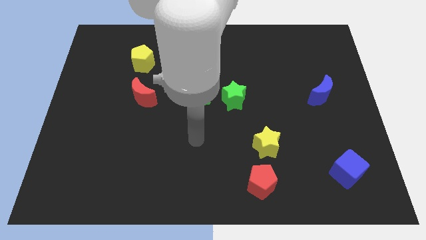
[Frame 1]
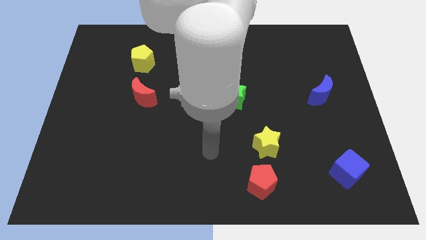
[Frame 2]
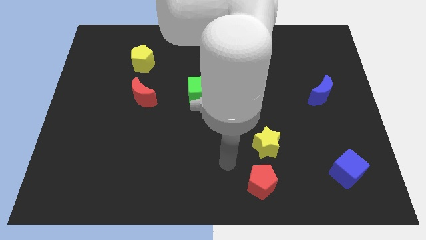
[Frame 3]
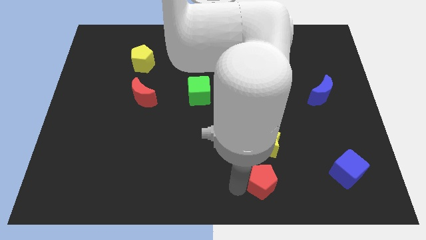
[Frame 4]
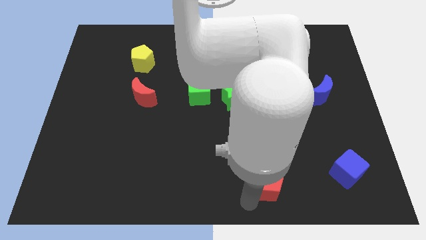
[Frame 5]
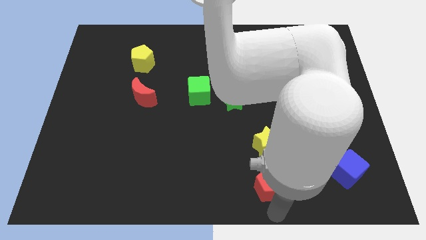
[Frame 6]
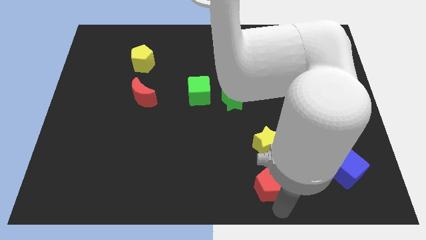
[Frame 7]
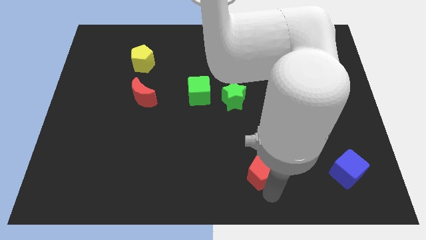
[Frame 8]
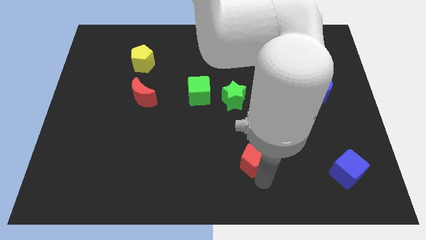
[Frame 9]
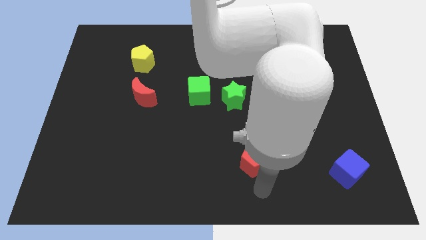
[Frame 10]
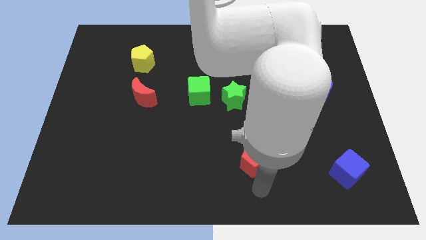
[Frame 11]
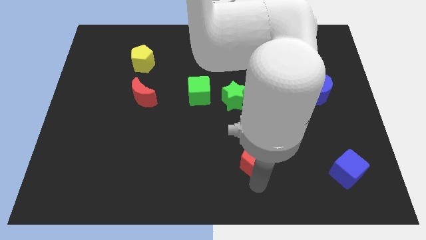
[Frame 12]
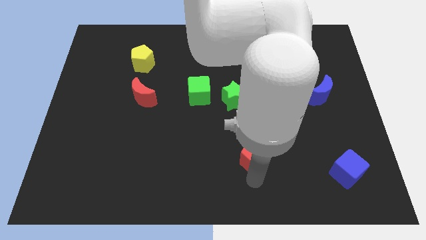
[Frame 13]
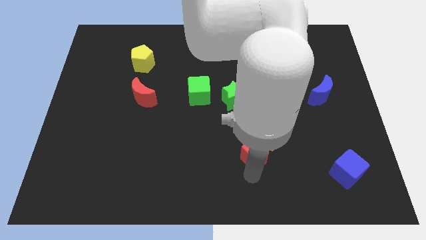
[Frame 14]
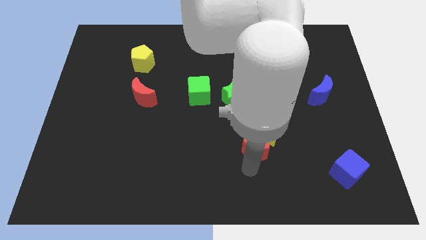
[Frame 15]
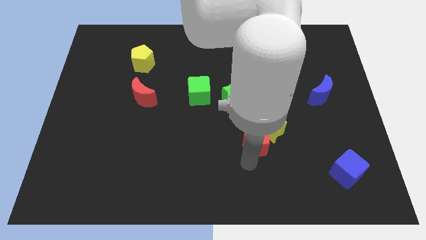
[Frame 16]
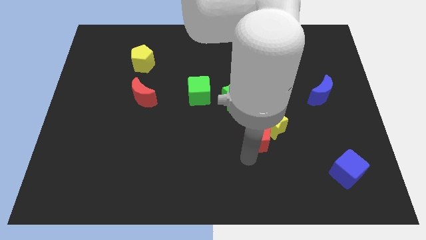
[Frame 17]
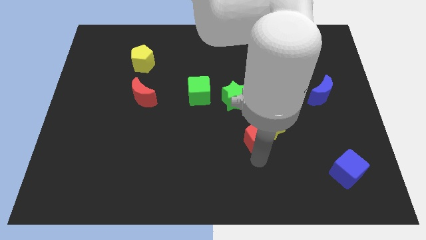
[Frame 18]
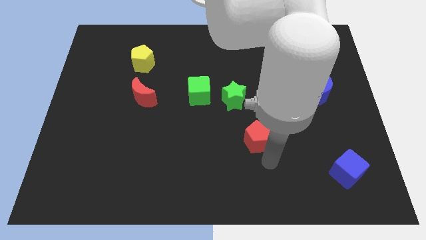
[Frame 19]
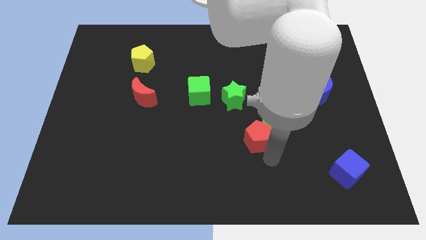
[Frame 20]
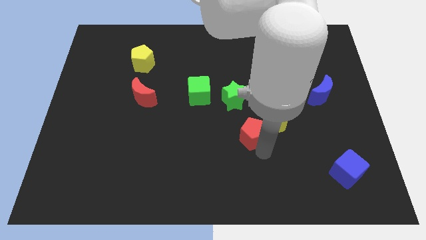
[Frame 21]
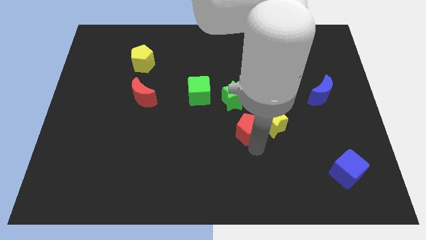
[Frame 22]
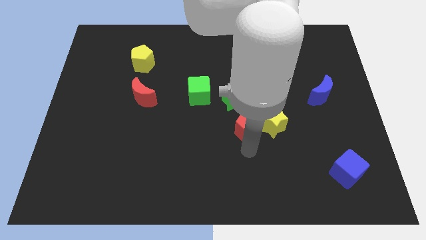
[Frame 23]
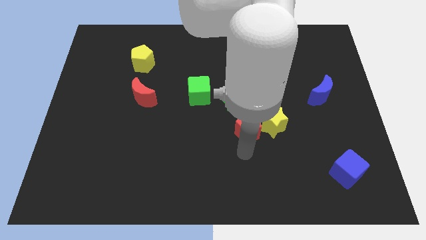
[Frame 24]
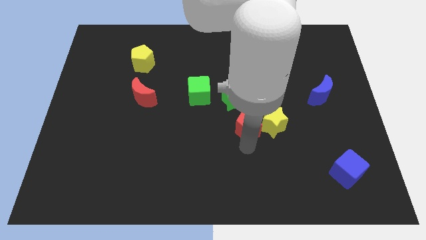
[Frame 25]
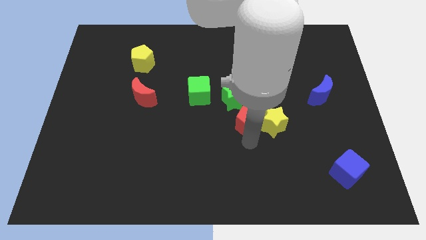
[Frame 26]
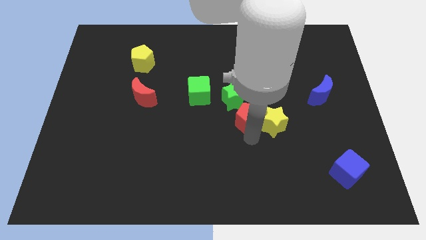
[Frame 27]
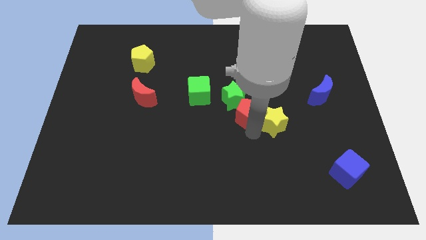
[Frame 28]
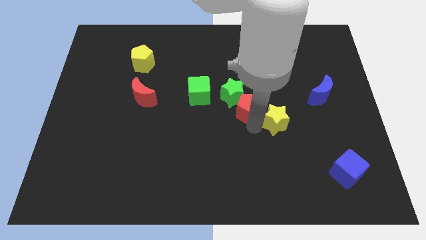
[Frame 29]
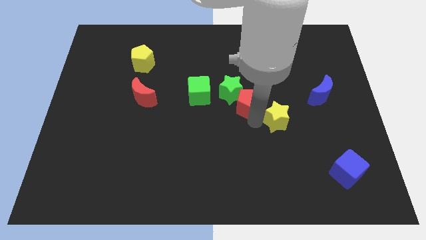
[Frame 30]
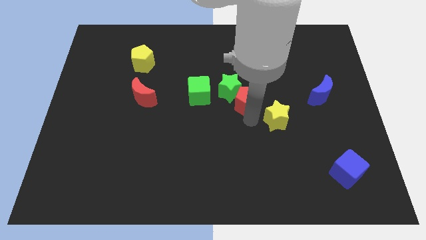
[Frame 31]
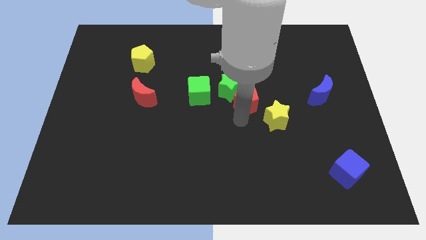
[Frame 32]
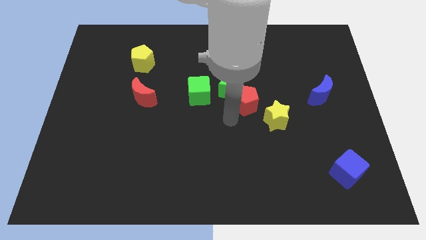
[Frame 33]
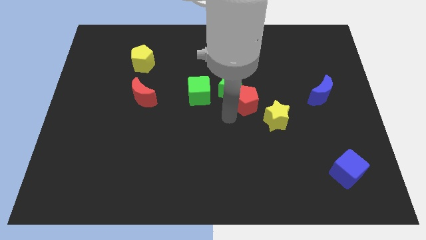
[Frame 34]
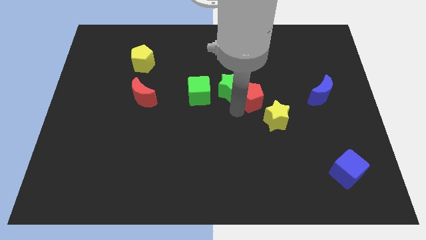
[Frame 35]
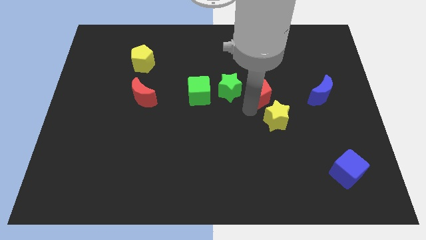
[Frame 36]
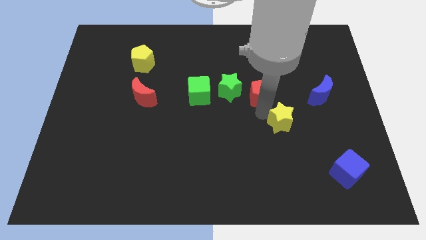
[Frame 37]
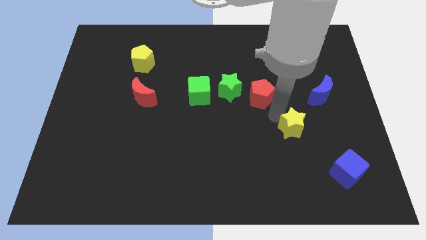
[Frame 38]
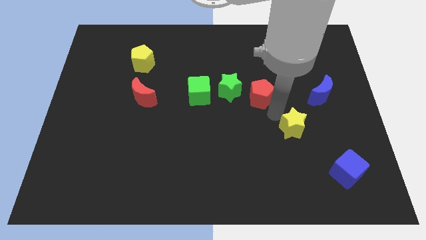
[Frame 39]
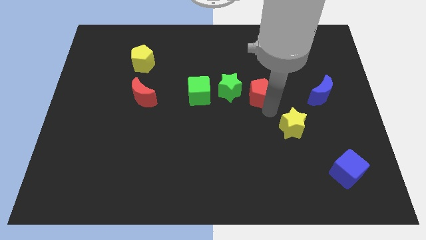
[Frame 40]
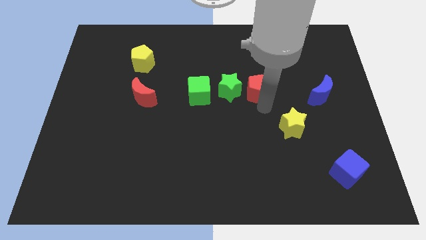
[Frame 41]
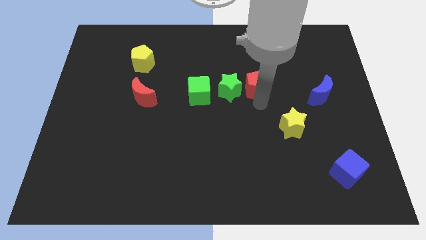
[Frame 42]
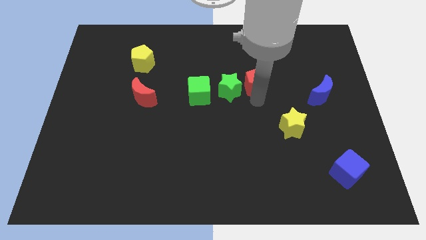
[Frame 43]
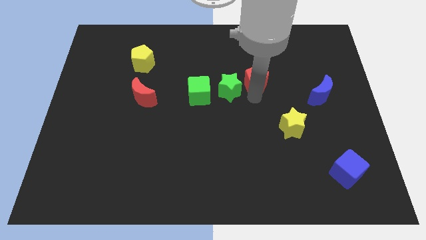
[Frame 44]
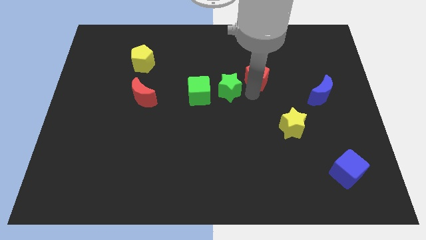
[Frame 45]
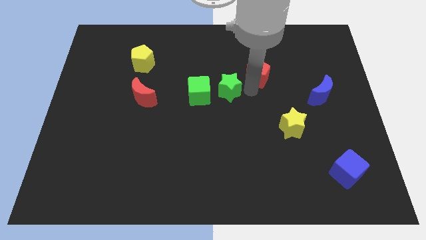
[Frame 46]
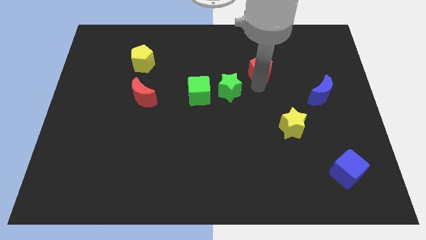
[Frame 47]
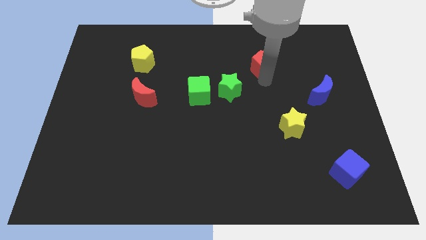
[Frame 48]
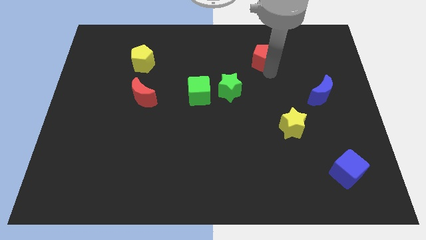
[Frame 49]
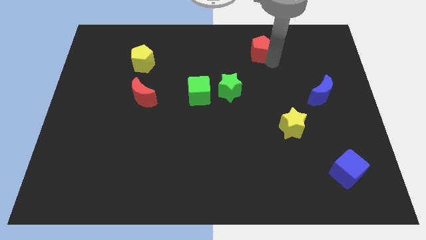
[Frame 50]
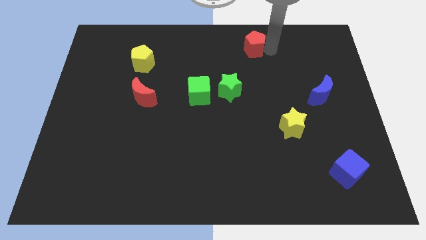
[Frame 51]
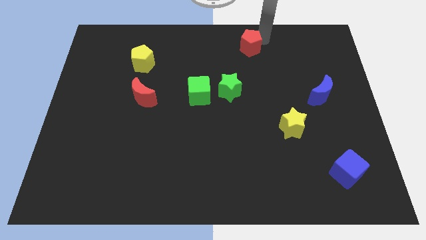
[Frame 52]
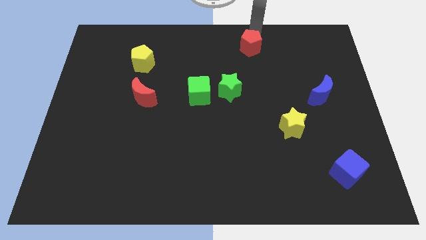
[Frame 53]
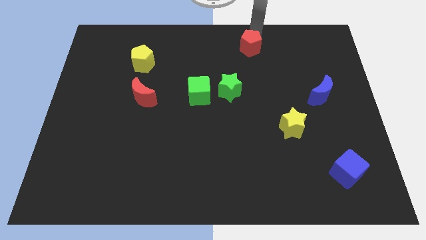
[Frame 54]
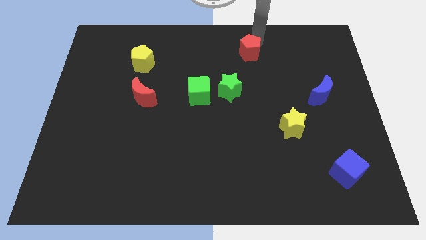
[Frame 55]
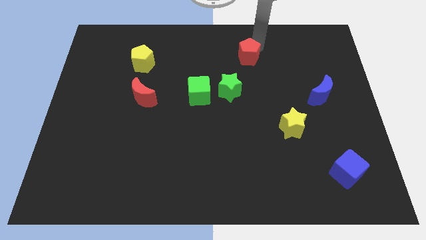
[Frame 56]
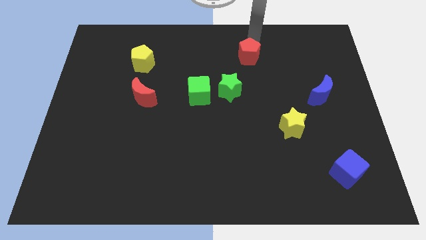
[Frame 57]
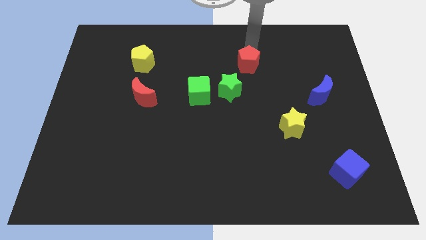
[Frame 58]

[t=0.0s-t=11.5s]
put the red pentagon to the top of the green star

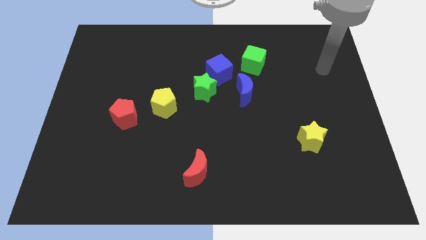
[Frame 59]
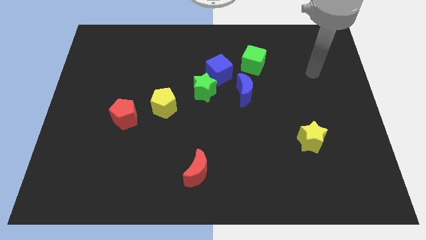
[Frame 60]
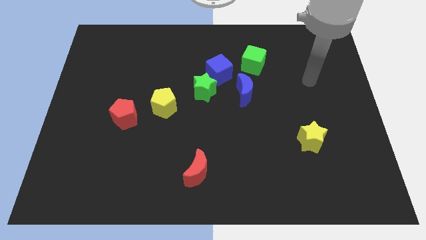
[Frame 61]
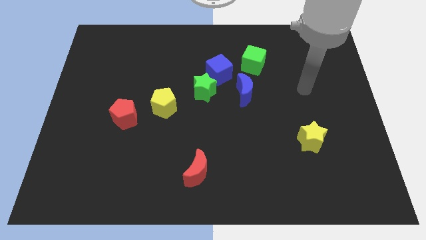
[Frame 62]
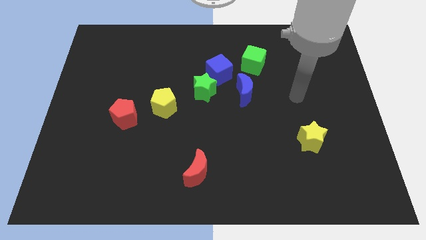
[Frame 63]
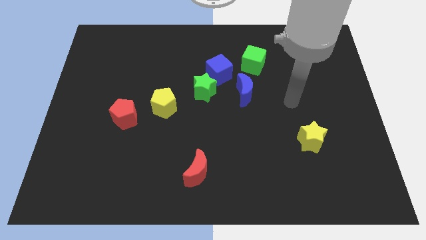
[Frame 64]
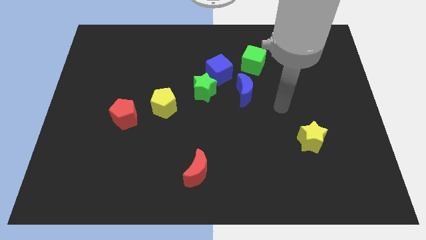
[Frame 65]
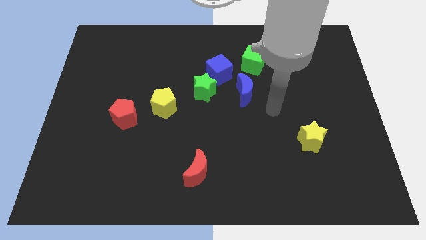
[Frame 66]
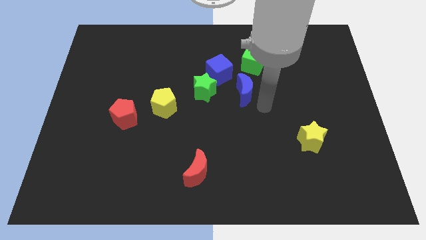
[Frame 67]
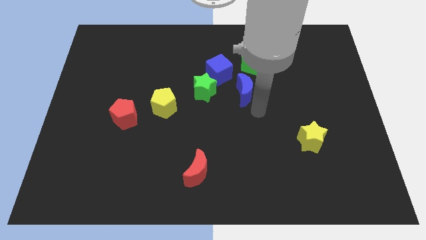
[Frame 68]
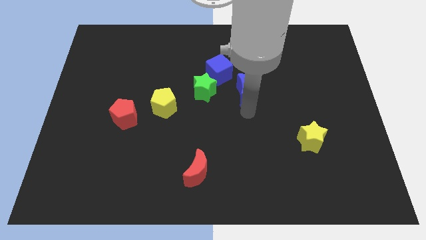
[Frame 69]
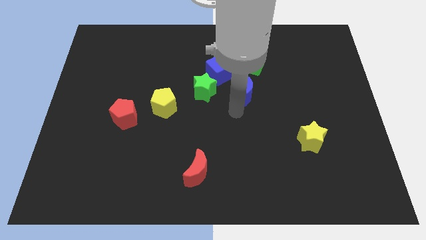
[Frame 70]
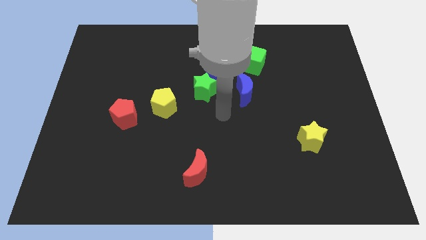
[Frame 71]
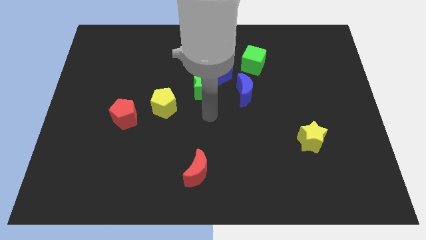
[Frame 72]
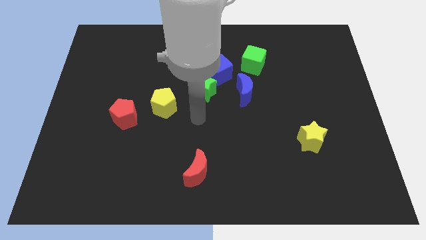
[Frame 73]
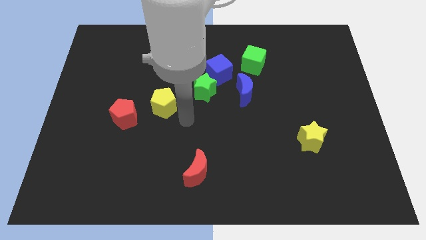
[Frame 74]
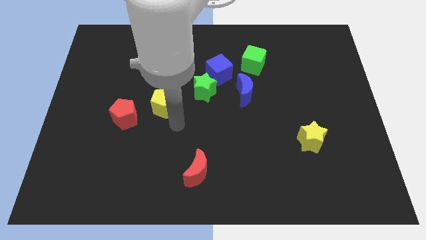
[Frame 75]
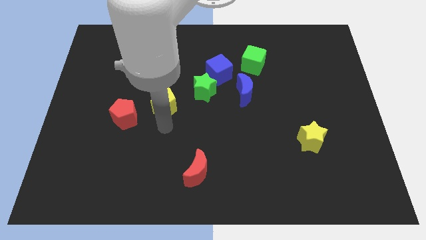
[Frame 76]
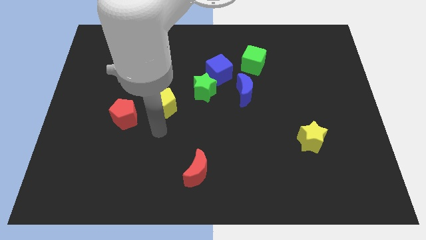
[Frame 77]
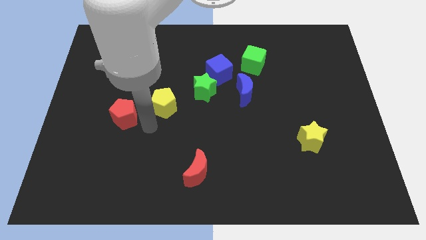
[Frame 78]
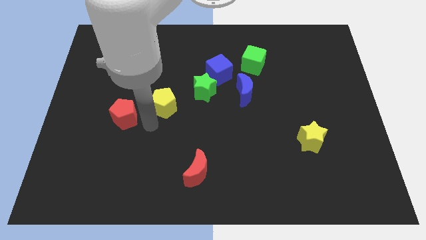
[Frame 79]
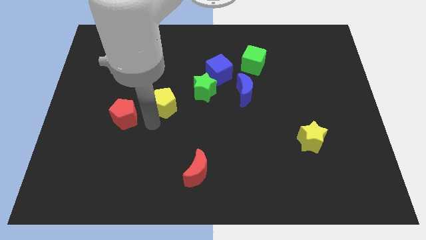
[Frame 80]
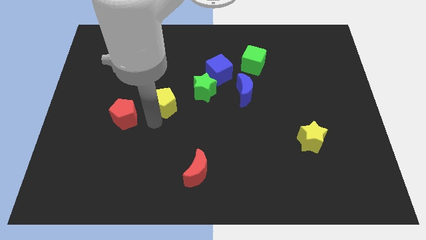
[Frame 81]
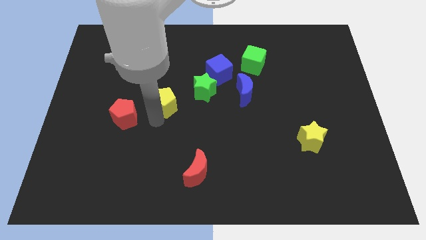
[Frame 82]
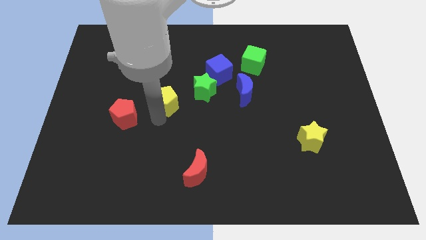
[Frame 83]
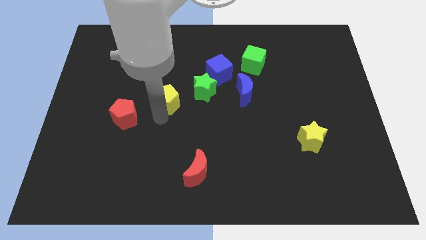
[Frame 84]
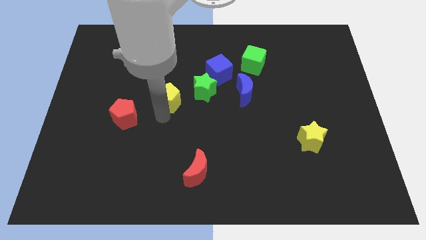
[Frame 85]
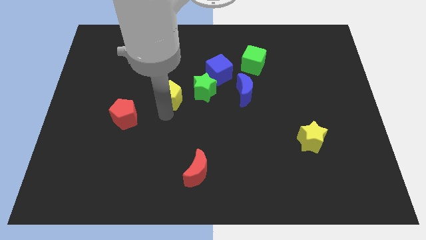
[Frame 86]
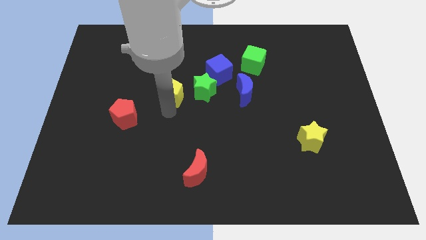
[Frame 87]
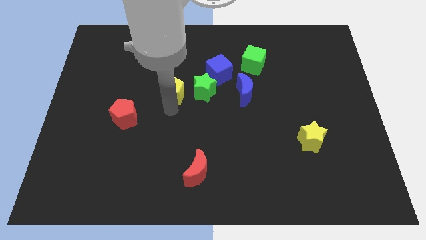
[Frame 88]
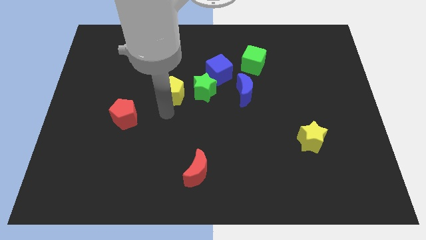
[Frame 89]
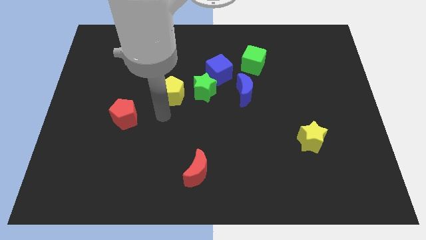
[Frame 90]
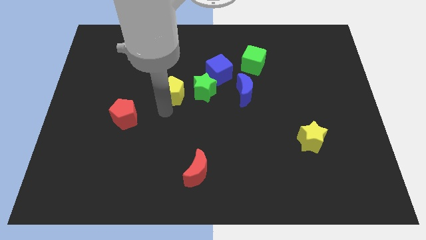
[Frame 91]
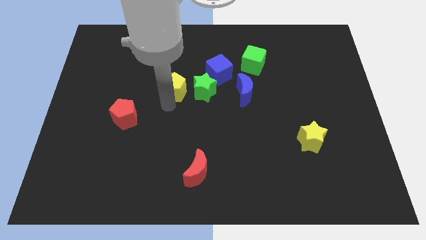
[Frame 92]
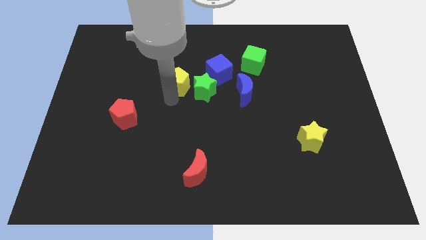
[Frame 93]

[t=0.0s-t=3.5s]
move the yellow pentagon to the top left of the green star
